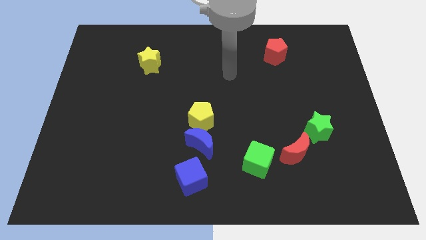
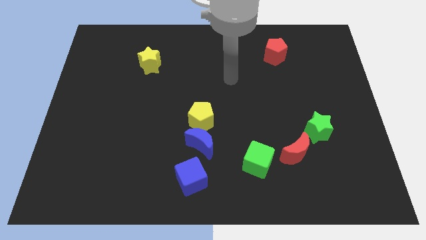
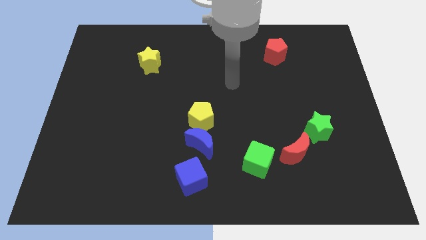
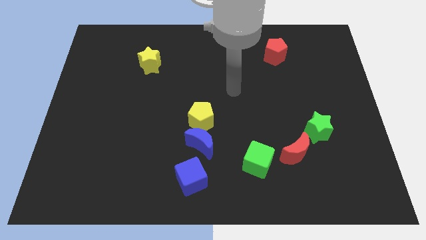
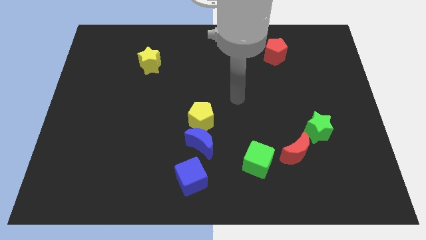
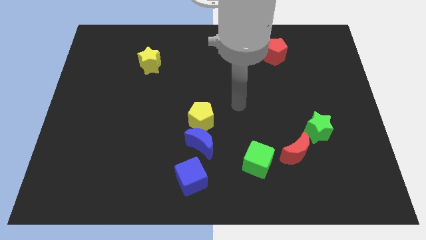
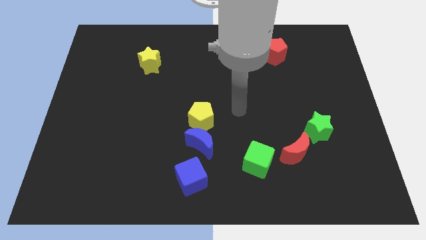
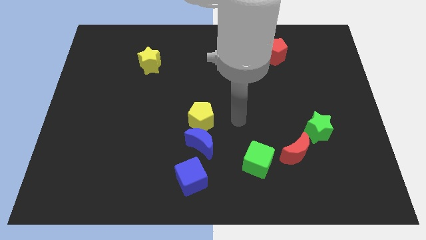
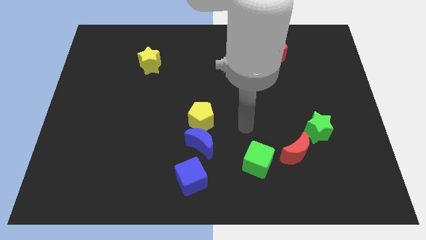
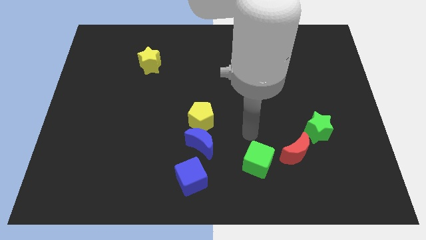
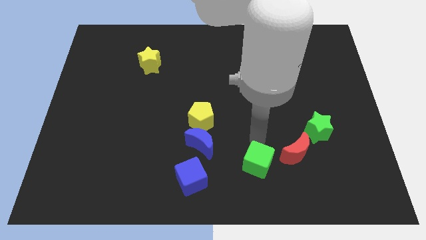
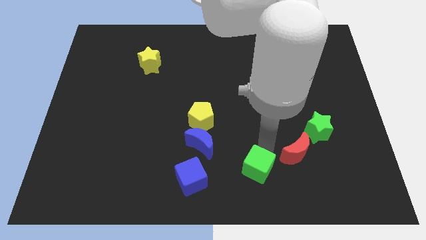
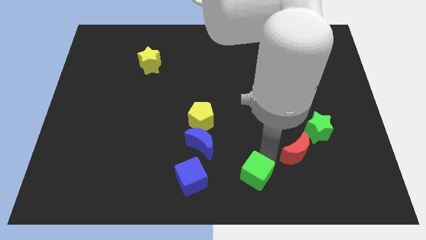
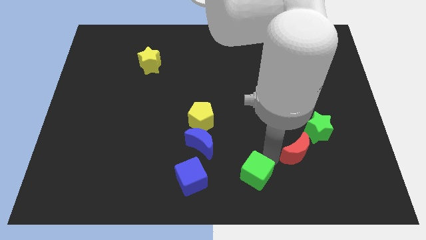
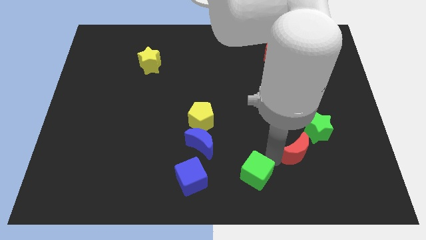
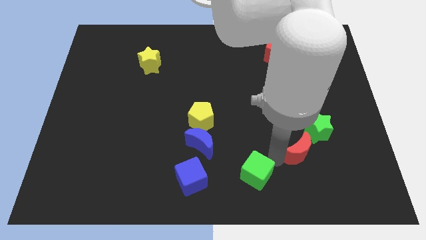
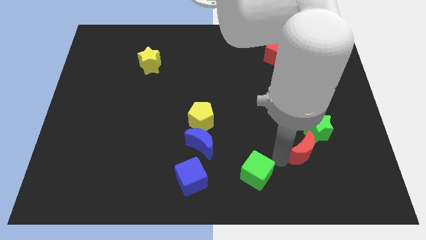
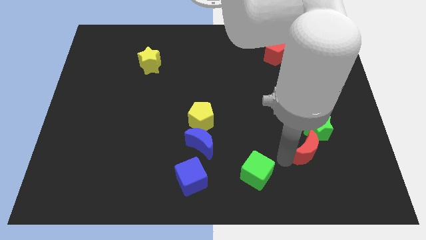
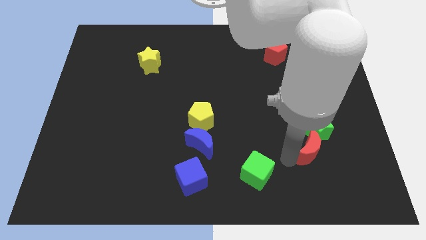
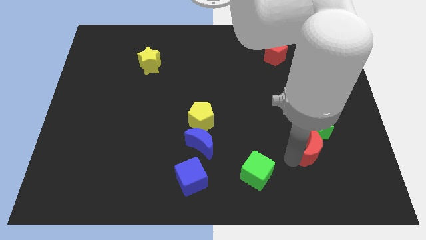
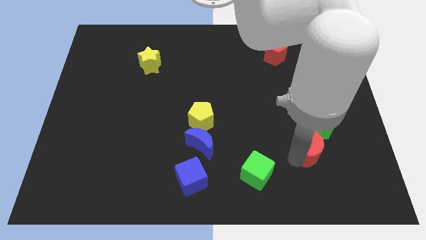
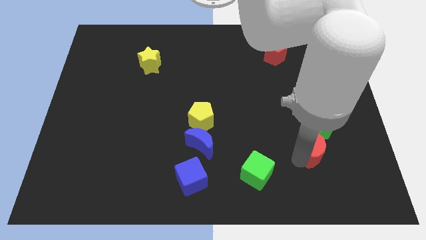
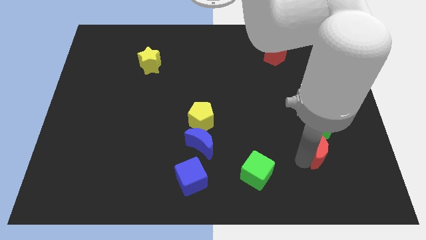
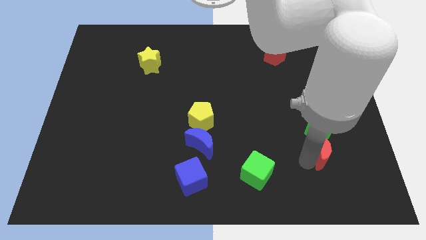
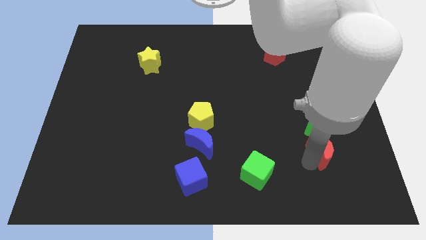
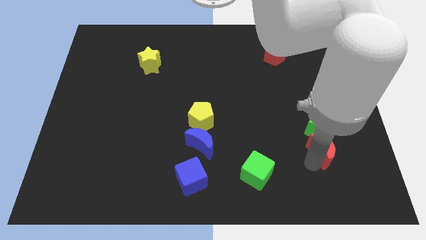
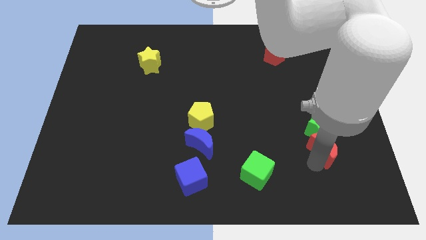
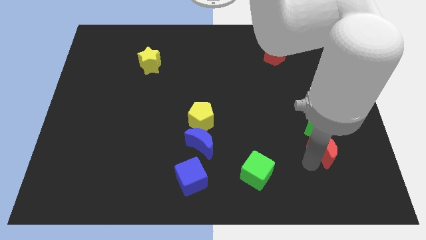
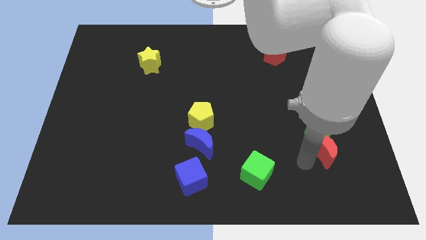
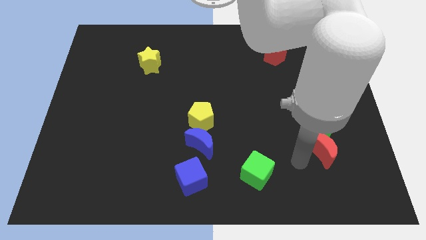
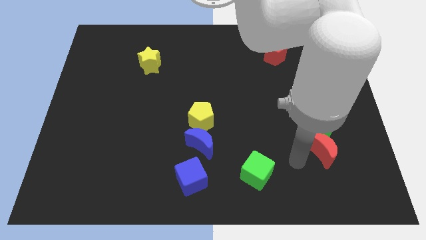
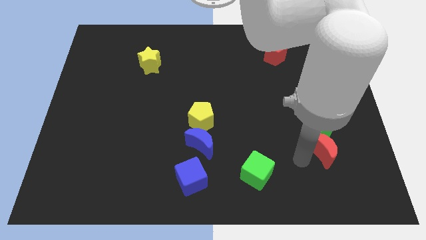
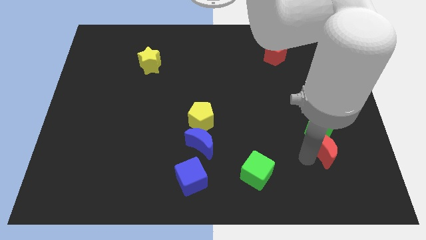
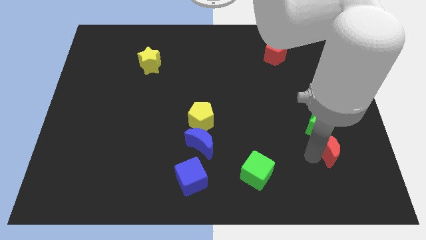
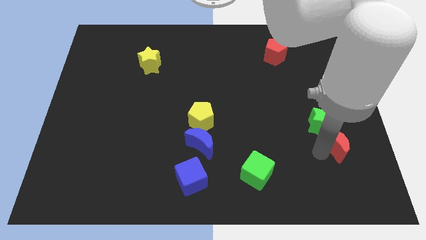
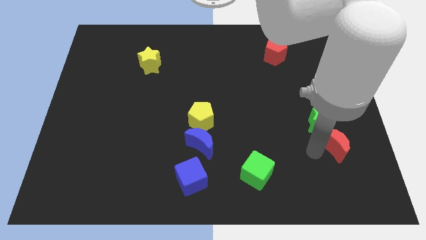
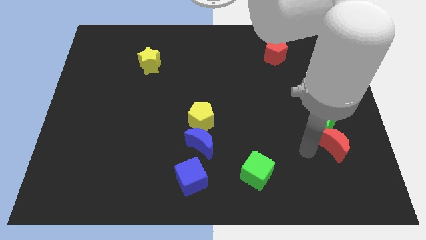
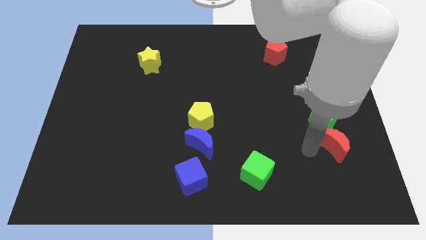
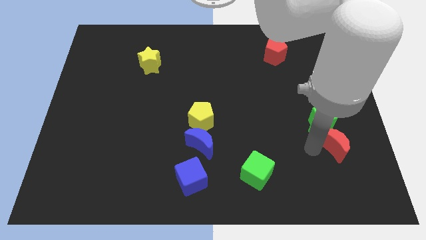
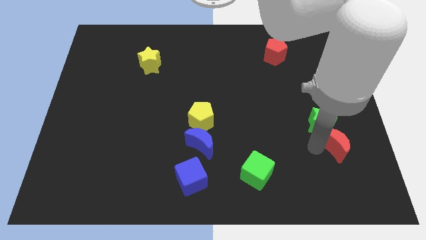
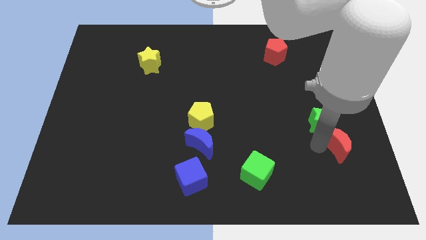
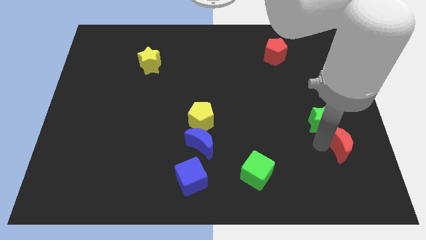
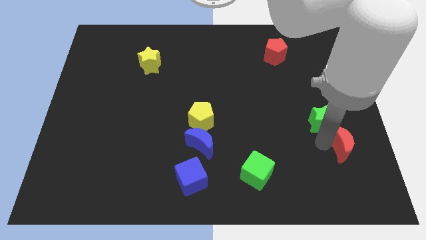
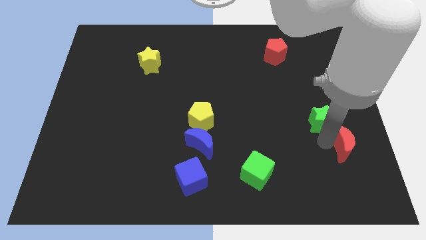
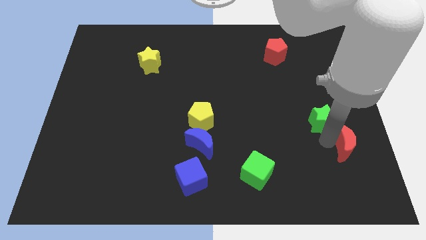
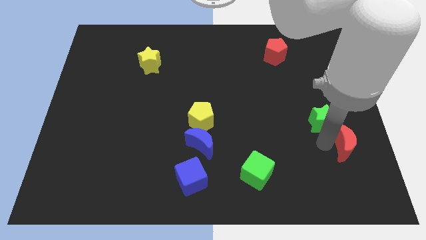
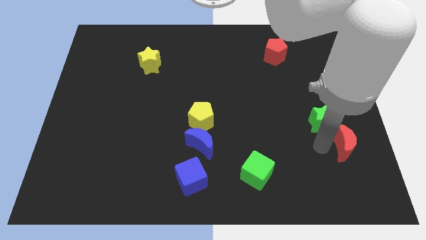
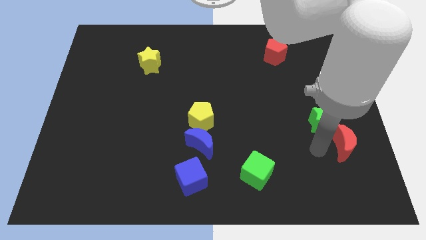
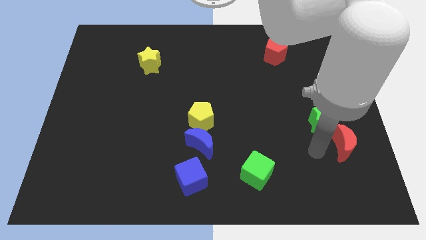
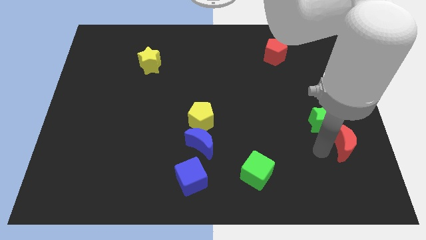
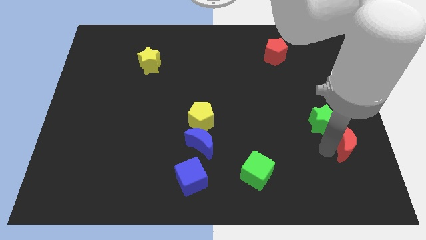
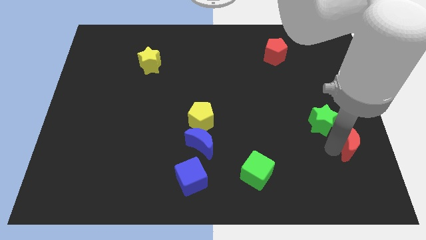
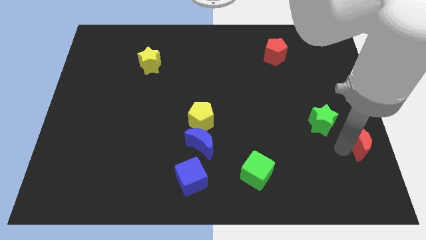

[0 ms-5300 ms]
slide the red moon to the right side of the board
